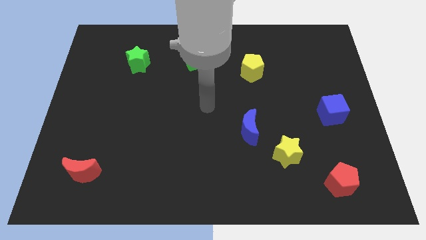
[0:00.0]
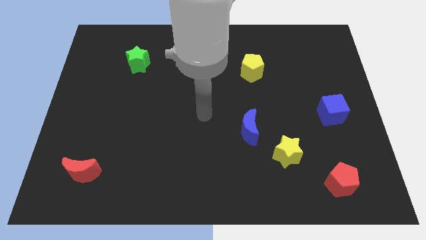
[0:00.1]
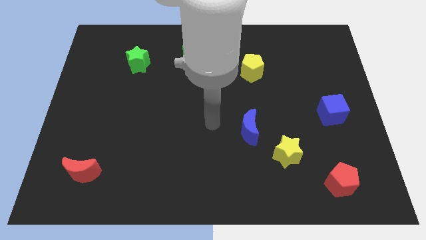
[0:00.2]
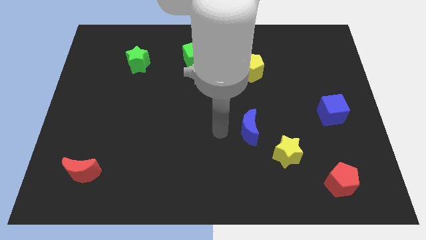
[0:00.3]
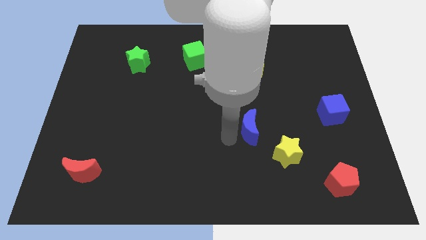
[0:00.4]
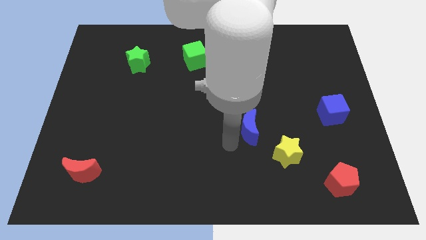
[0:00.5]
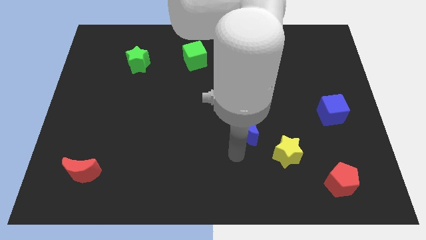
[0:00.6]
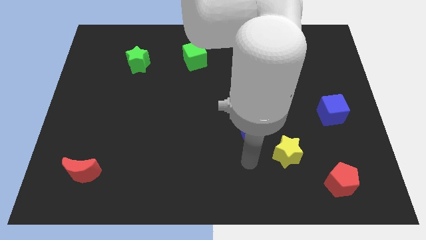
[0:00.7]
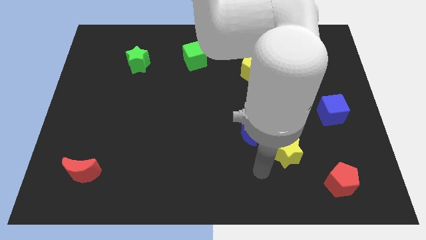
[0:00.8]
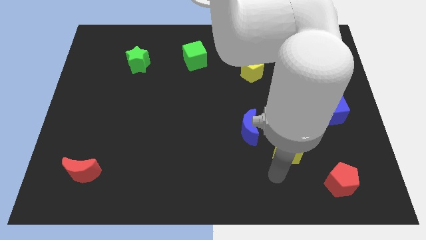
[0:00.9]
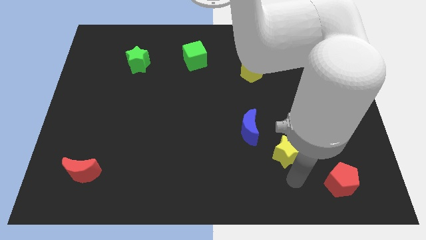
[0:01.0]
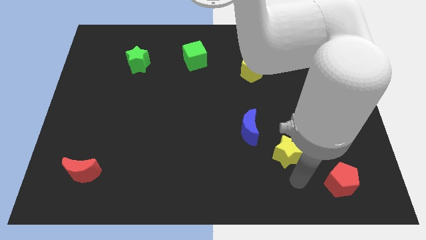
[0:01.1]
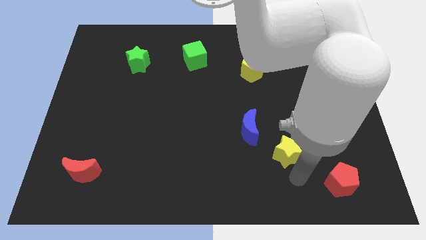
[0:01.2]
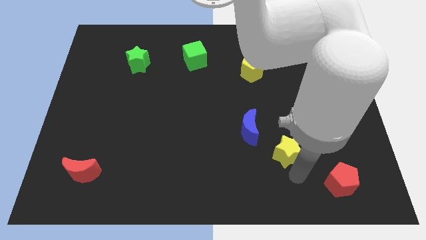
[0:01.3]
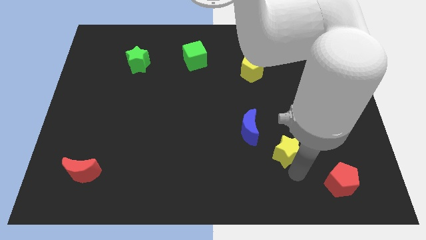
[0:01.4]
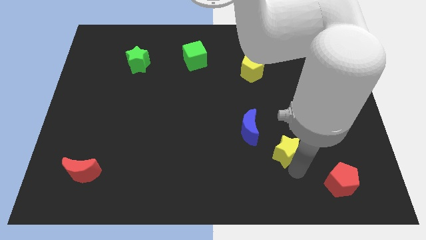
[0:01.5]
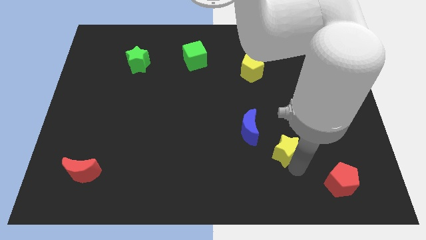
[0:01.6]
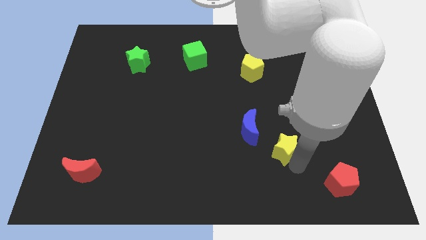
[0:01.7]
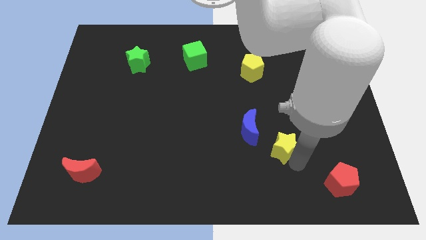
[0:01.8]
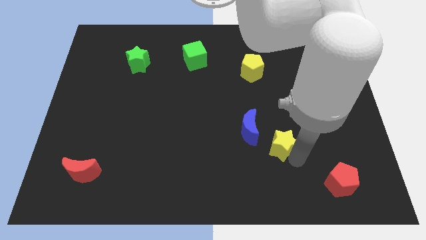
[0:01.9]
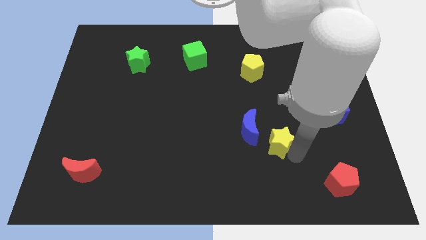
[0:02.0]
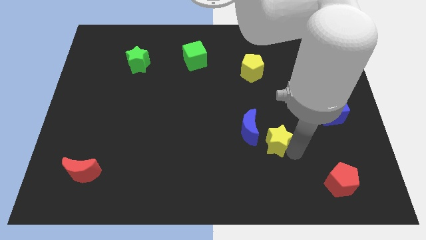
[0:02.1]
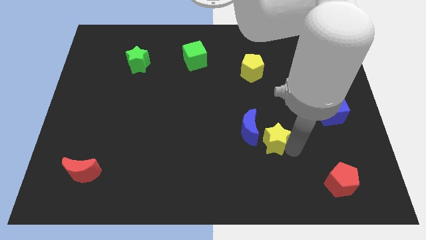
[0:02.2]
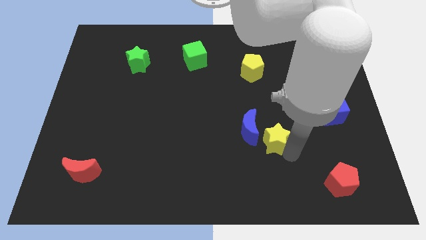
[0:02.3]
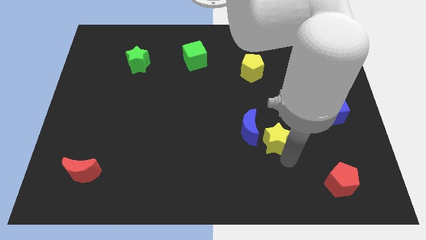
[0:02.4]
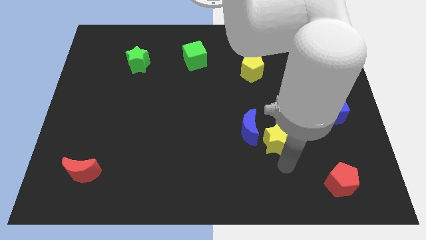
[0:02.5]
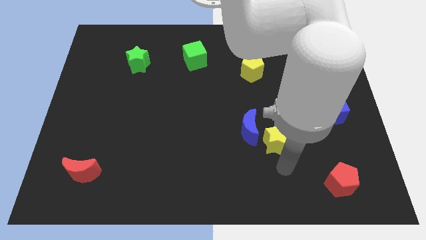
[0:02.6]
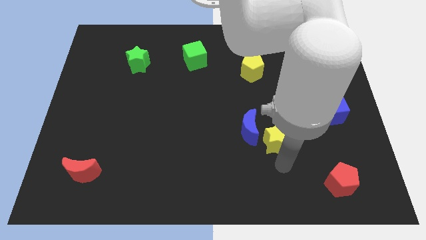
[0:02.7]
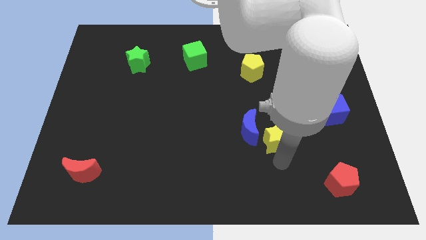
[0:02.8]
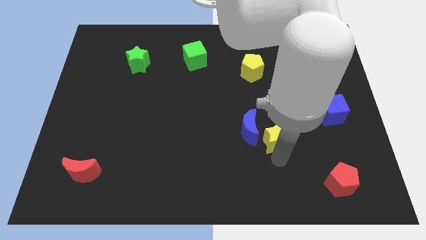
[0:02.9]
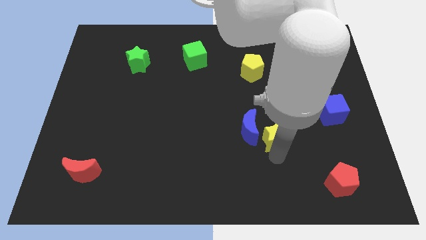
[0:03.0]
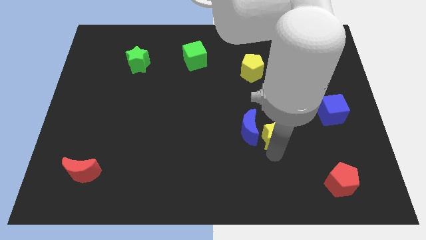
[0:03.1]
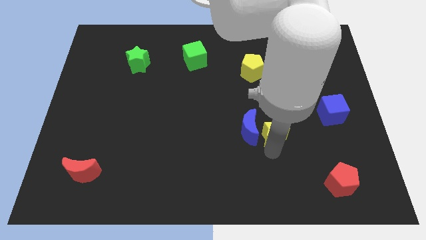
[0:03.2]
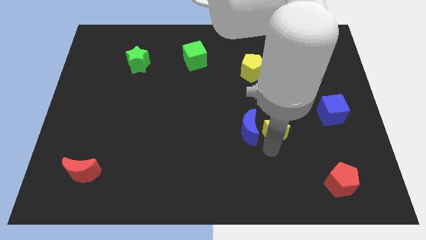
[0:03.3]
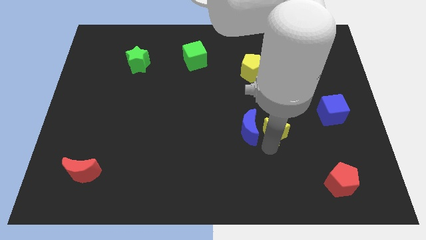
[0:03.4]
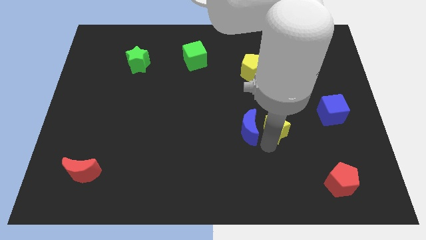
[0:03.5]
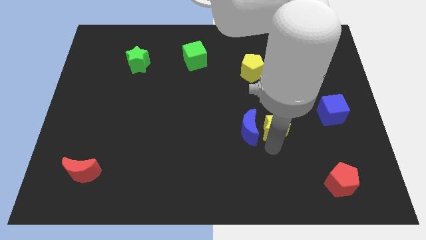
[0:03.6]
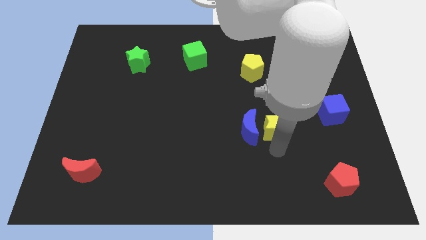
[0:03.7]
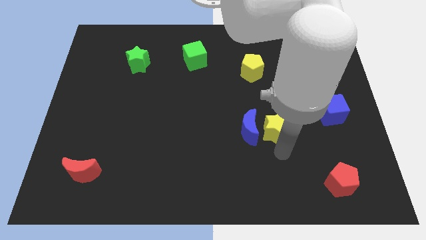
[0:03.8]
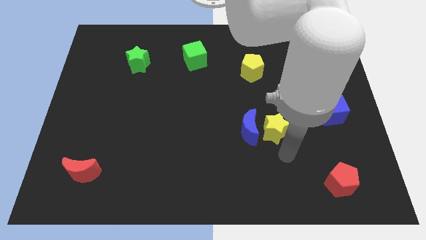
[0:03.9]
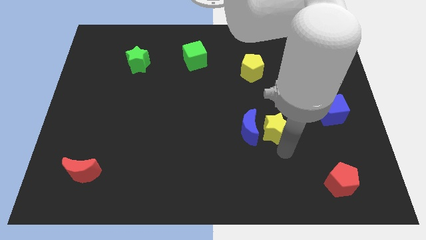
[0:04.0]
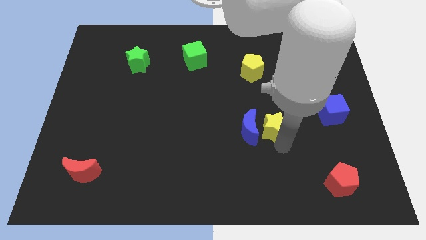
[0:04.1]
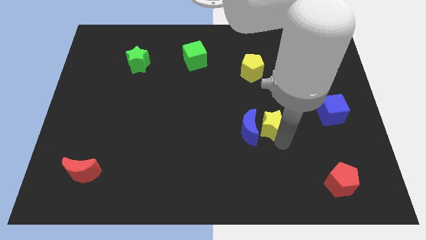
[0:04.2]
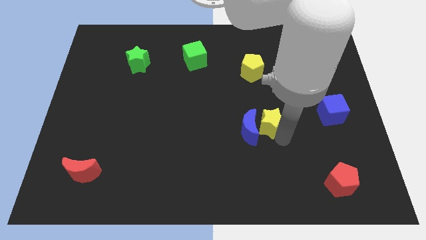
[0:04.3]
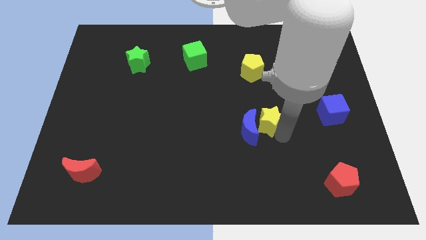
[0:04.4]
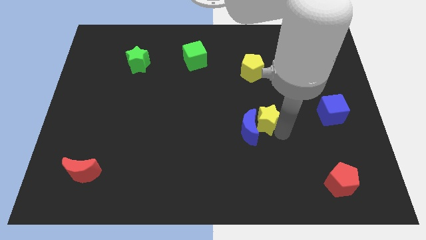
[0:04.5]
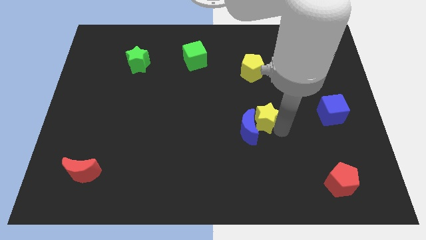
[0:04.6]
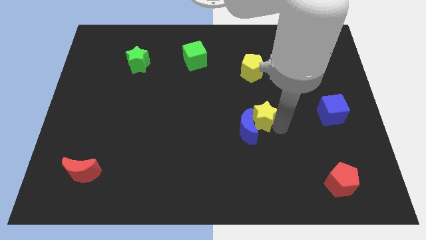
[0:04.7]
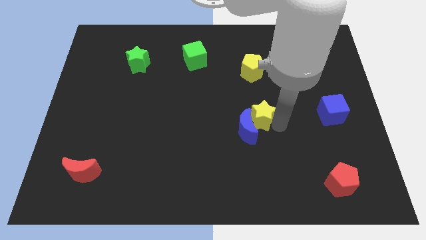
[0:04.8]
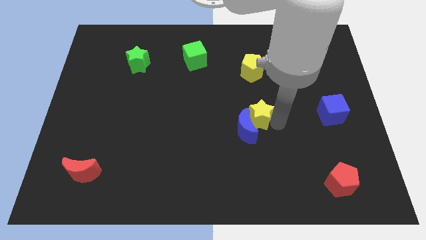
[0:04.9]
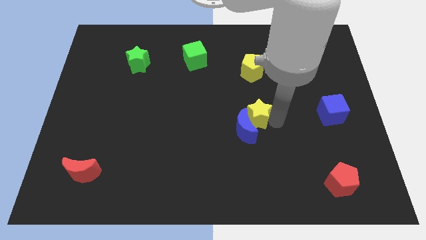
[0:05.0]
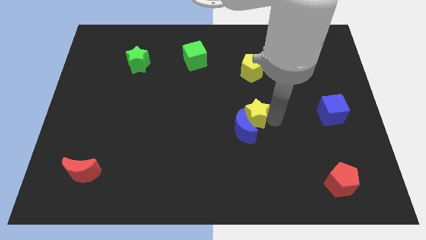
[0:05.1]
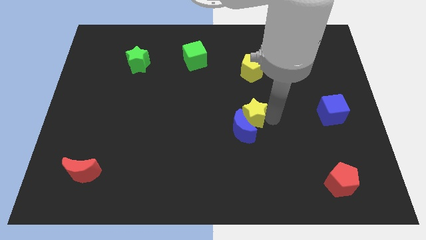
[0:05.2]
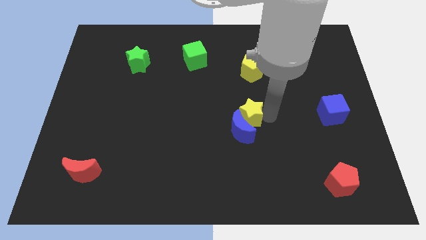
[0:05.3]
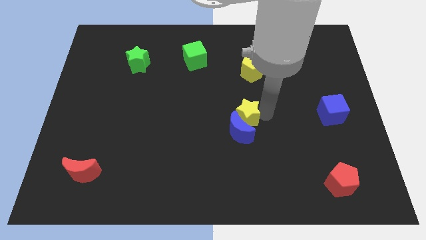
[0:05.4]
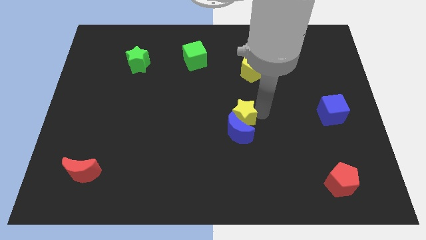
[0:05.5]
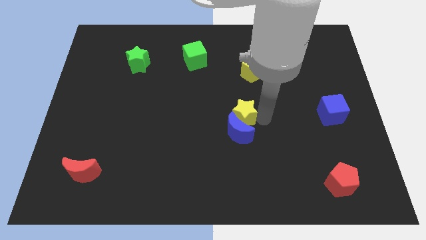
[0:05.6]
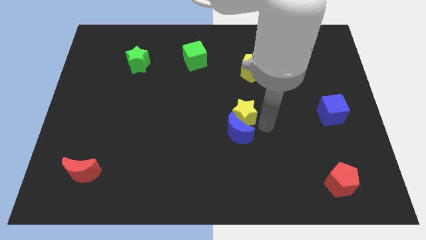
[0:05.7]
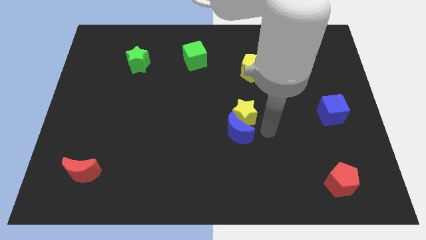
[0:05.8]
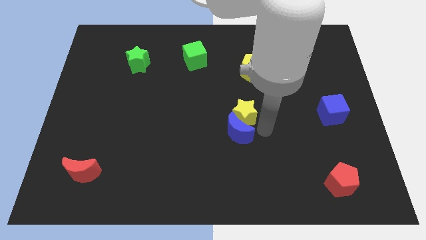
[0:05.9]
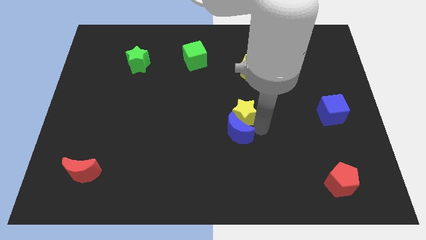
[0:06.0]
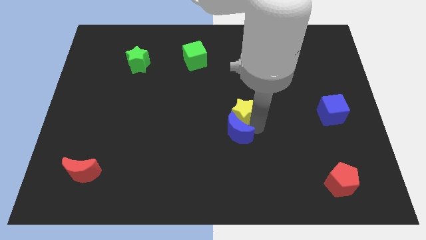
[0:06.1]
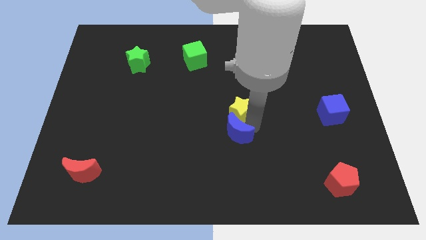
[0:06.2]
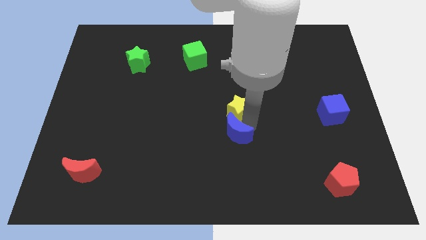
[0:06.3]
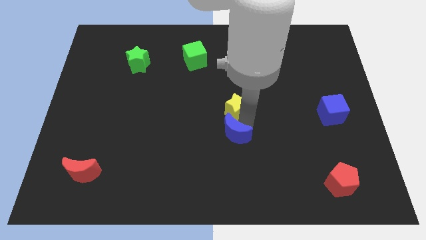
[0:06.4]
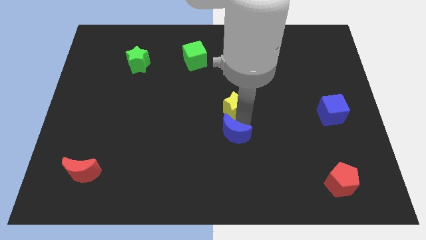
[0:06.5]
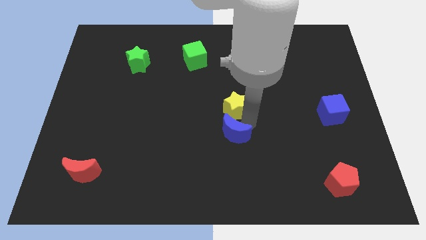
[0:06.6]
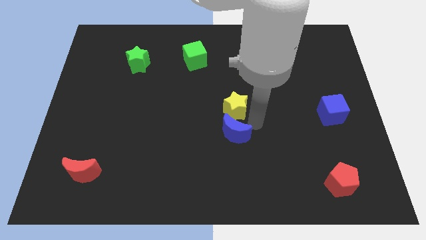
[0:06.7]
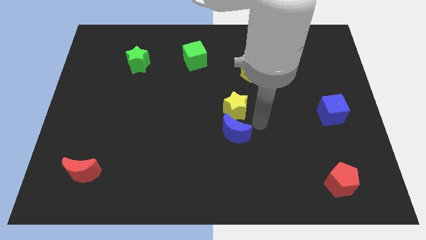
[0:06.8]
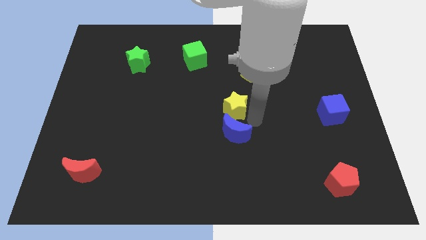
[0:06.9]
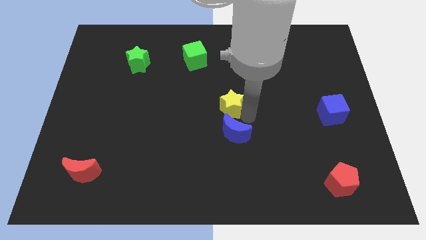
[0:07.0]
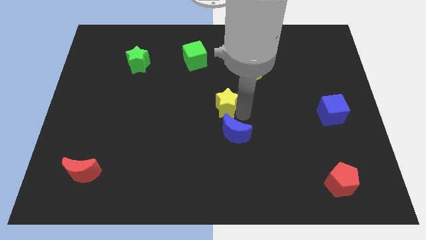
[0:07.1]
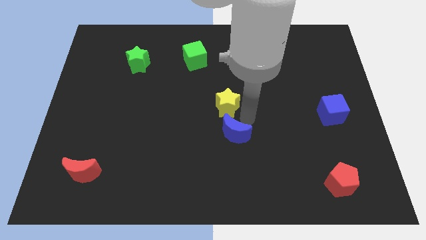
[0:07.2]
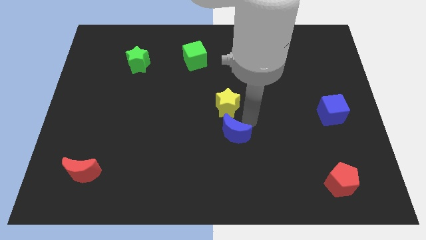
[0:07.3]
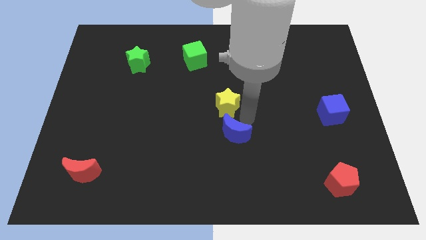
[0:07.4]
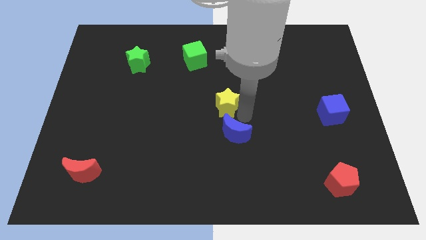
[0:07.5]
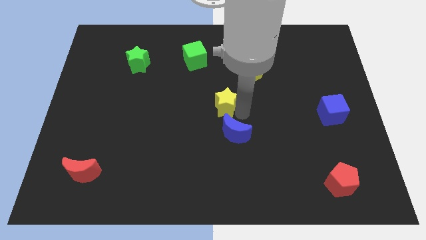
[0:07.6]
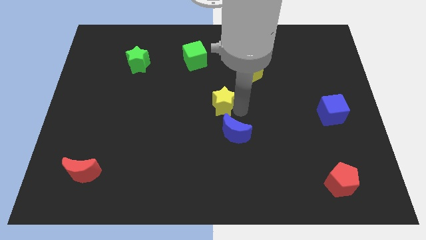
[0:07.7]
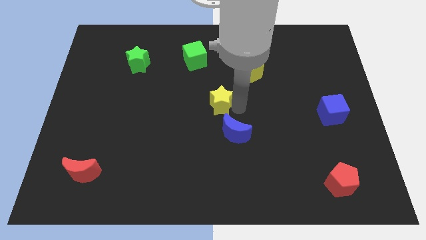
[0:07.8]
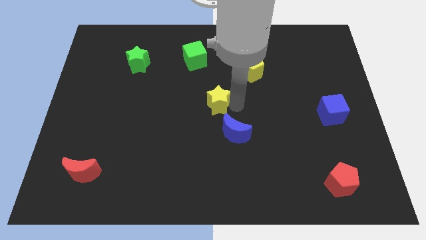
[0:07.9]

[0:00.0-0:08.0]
move the yellow star up and to the left diagonally

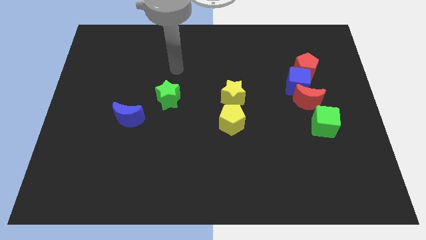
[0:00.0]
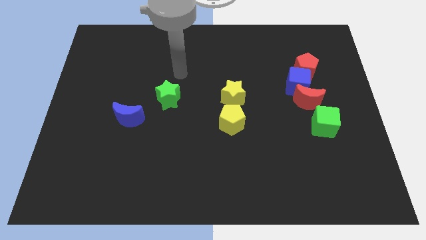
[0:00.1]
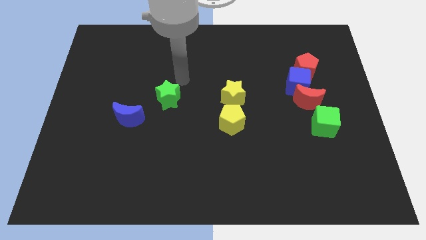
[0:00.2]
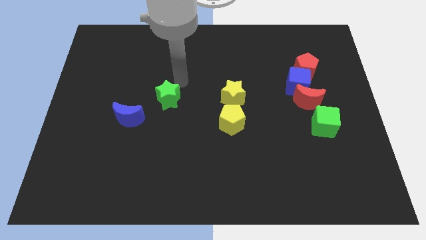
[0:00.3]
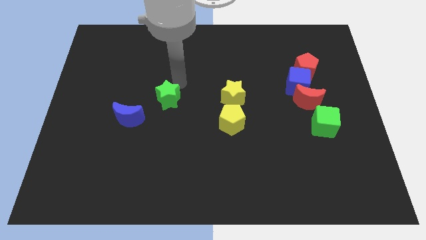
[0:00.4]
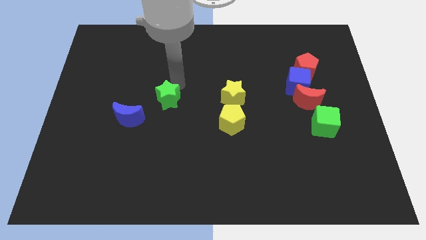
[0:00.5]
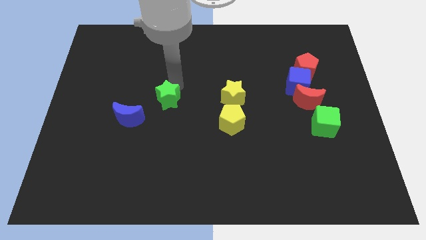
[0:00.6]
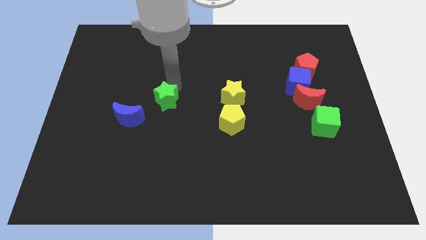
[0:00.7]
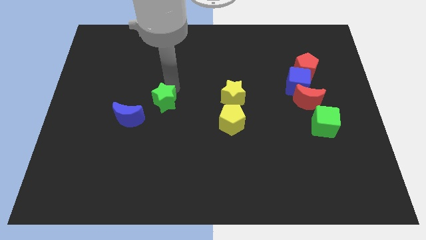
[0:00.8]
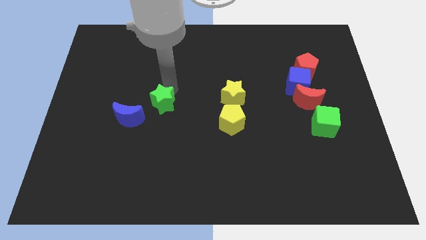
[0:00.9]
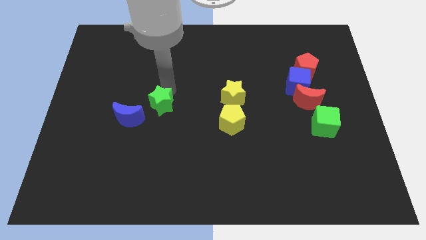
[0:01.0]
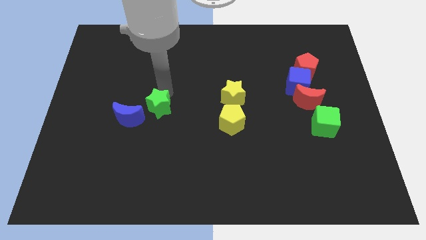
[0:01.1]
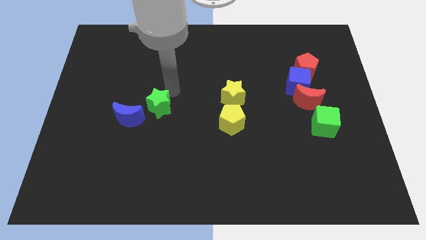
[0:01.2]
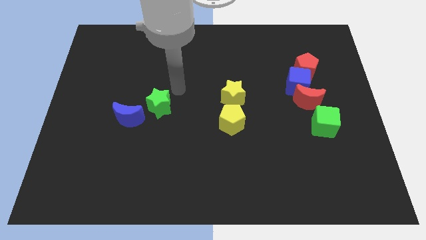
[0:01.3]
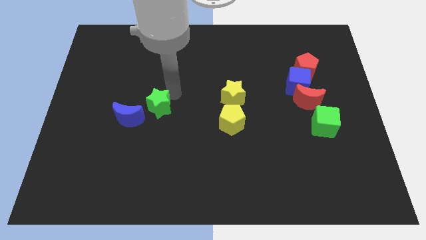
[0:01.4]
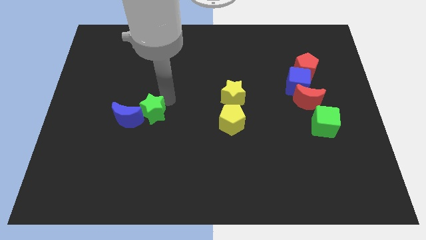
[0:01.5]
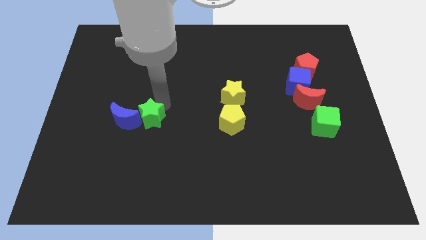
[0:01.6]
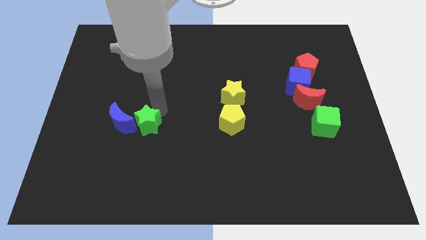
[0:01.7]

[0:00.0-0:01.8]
slide the green star down and then to the left a little
